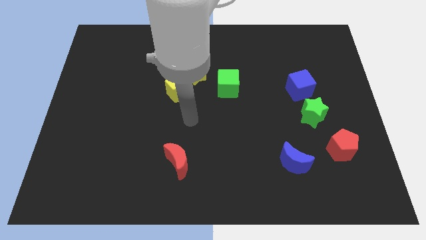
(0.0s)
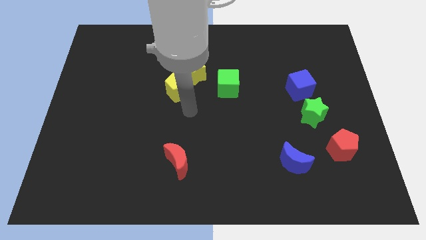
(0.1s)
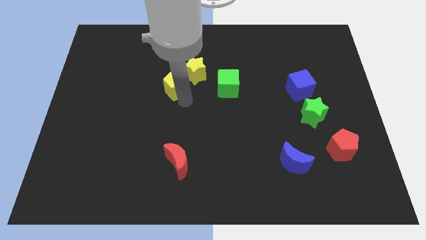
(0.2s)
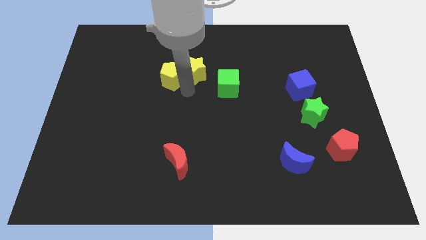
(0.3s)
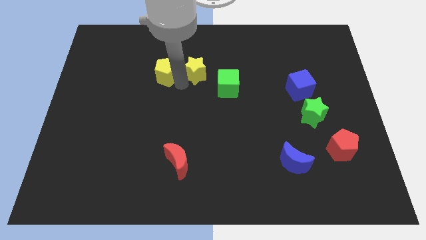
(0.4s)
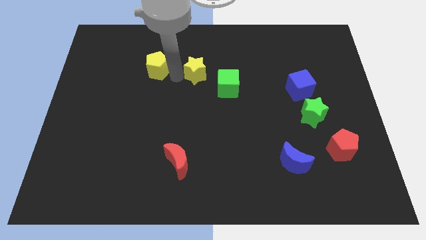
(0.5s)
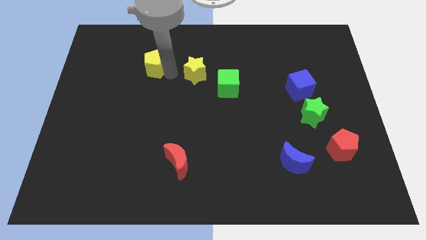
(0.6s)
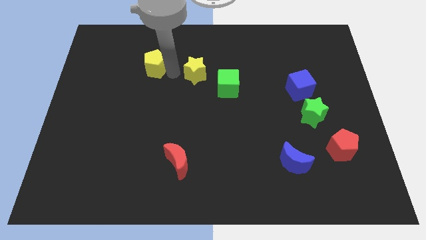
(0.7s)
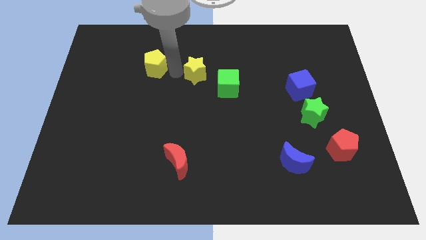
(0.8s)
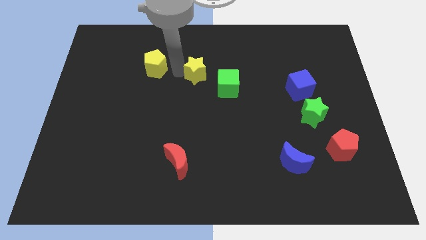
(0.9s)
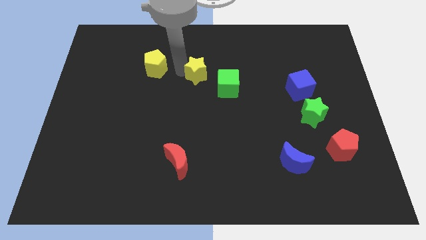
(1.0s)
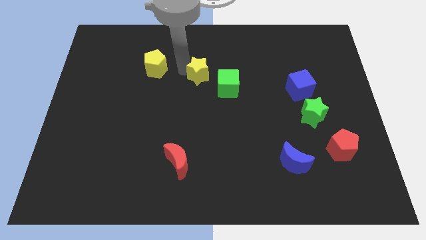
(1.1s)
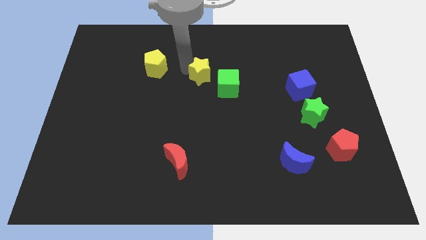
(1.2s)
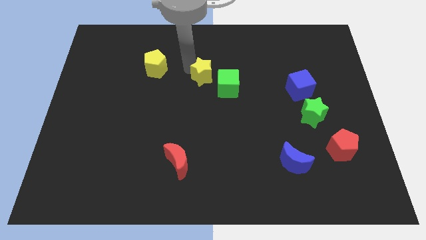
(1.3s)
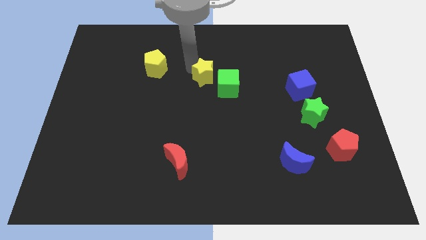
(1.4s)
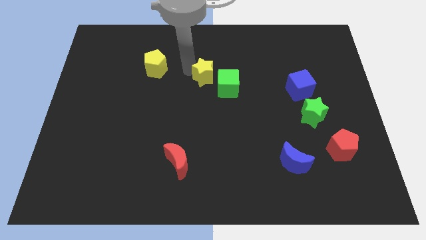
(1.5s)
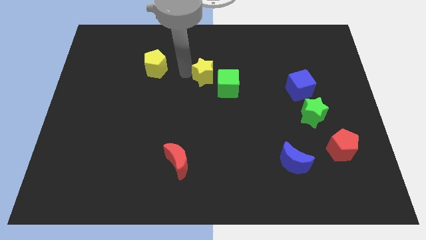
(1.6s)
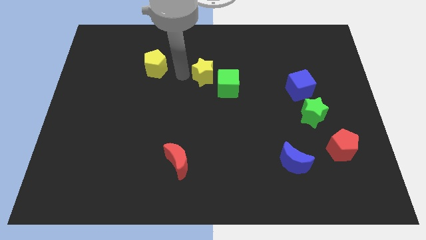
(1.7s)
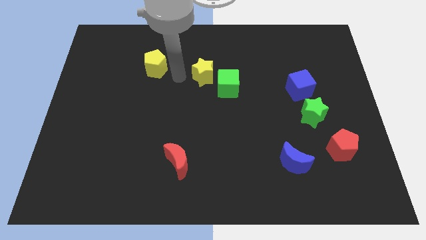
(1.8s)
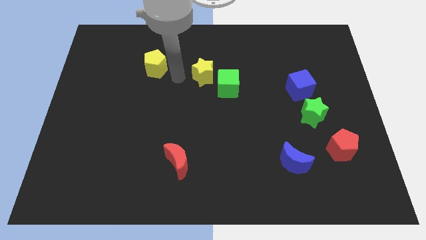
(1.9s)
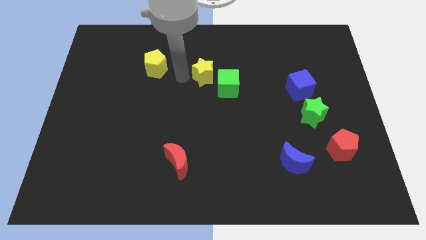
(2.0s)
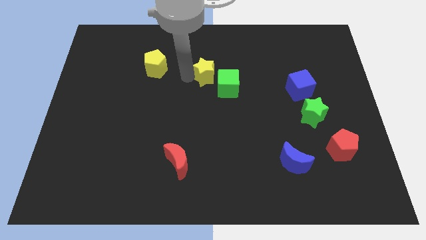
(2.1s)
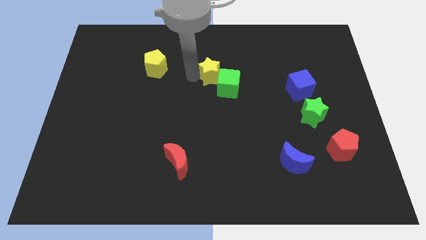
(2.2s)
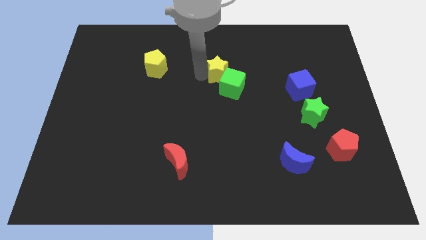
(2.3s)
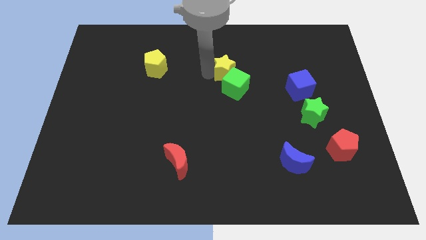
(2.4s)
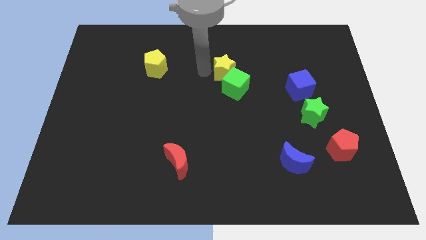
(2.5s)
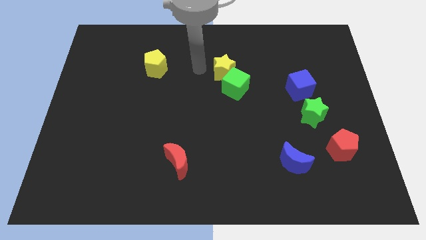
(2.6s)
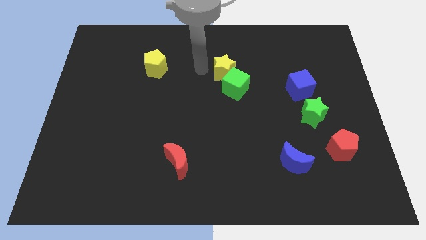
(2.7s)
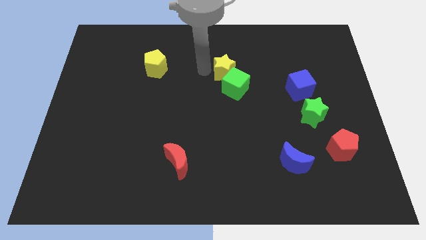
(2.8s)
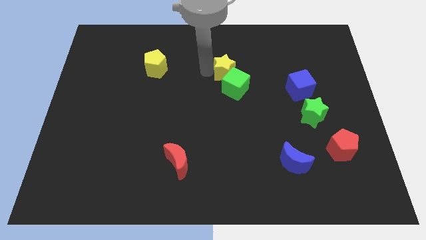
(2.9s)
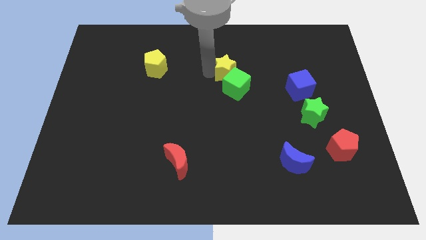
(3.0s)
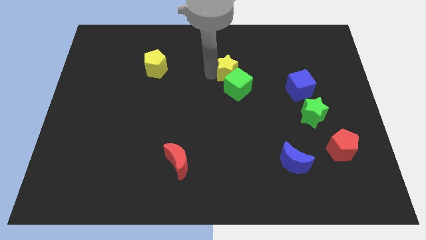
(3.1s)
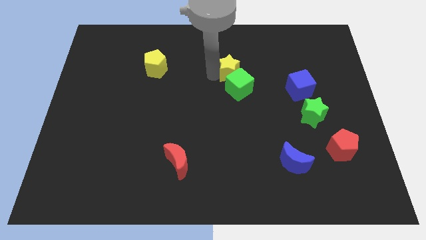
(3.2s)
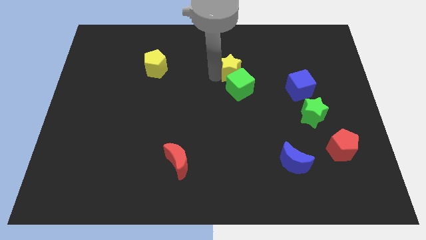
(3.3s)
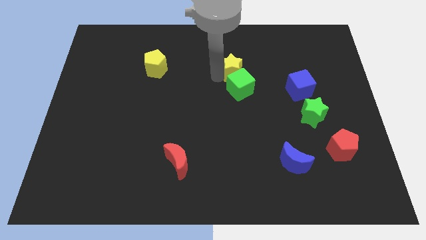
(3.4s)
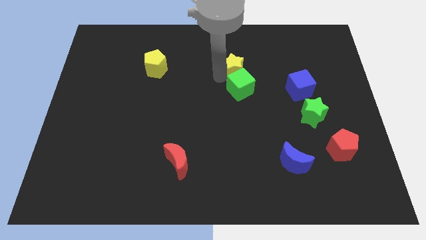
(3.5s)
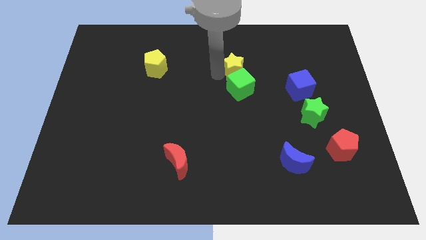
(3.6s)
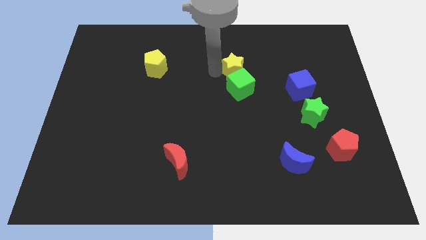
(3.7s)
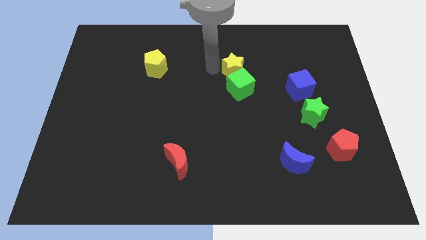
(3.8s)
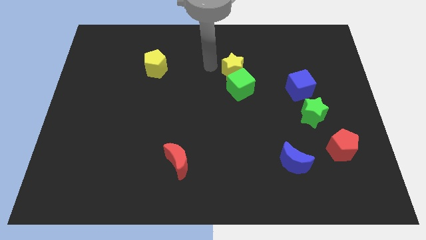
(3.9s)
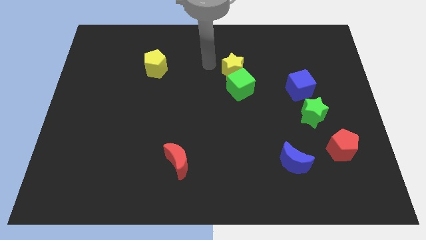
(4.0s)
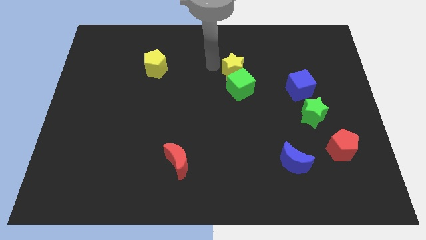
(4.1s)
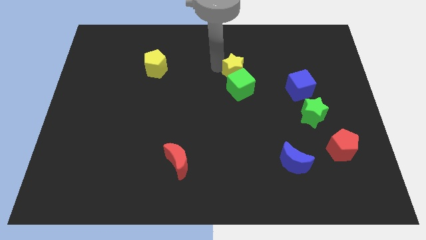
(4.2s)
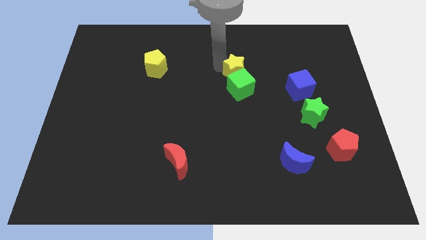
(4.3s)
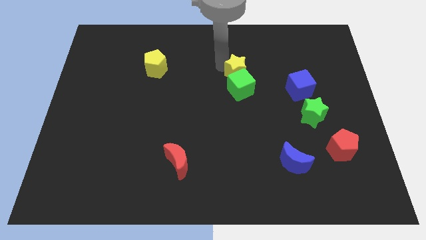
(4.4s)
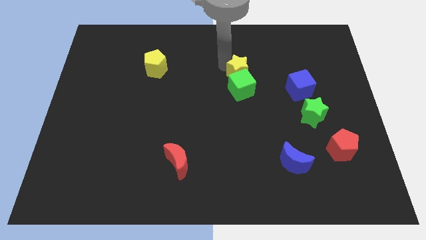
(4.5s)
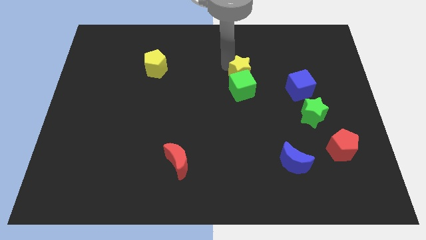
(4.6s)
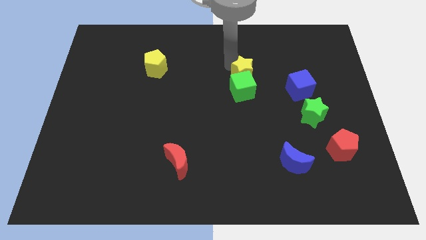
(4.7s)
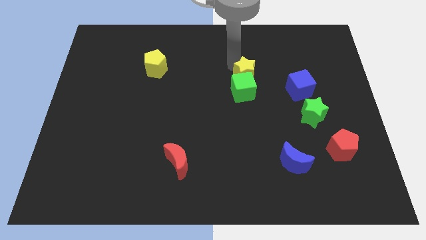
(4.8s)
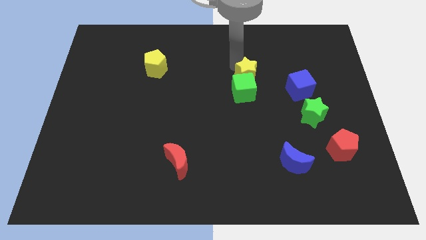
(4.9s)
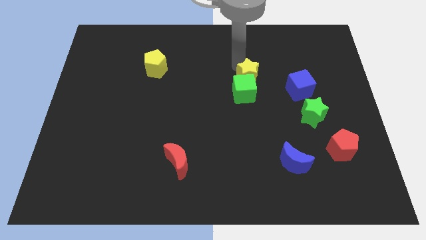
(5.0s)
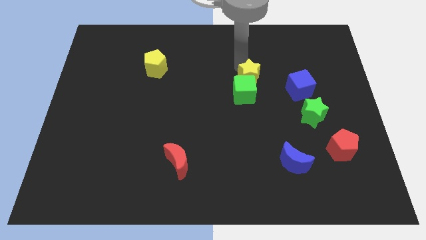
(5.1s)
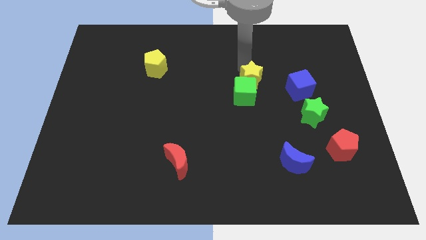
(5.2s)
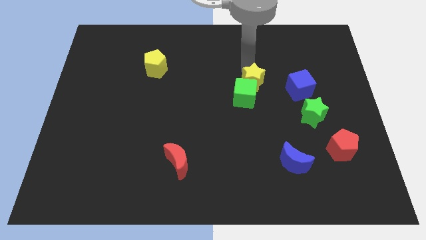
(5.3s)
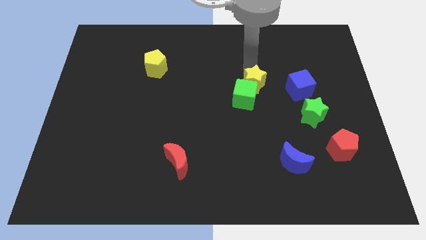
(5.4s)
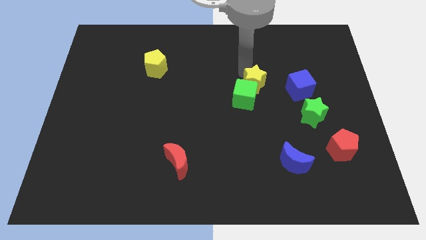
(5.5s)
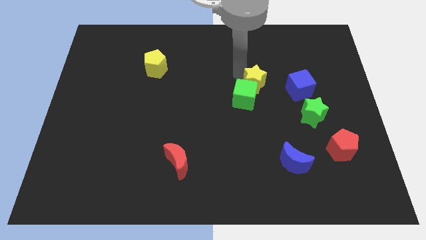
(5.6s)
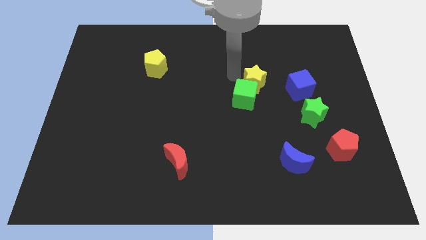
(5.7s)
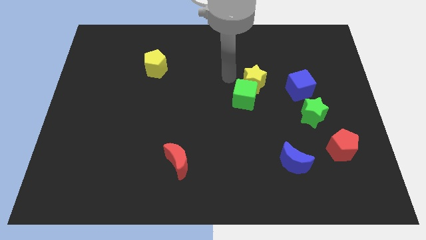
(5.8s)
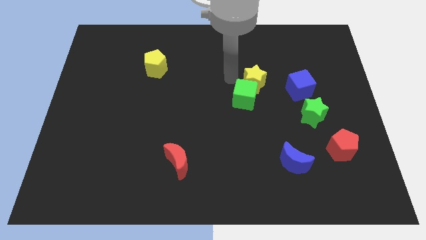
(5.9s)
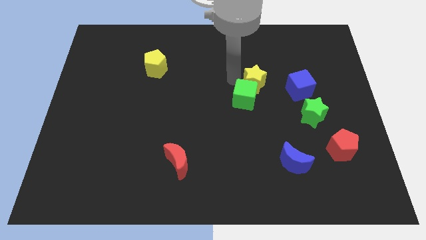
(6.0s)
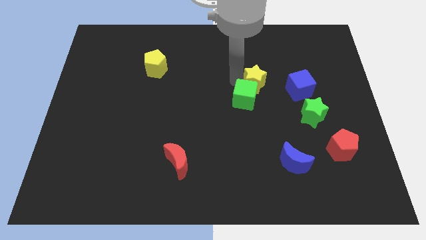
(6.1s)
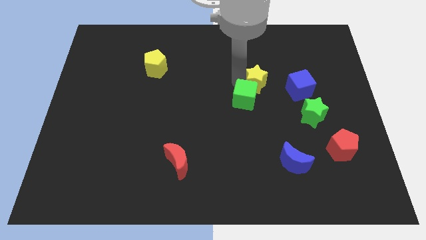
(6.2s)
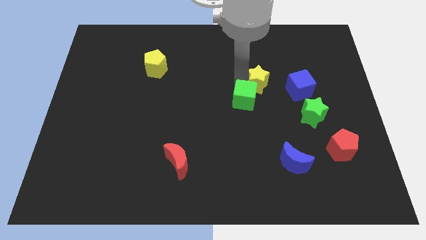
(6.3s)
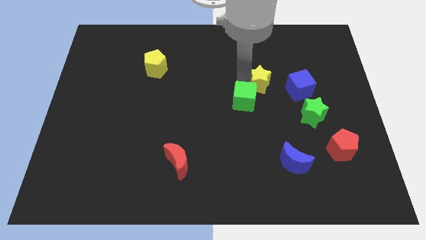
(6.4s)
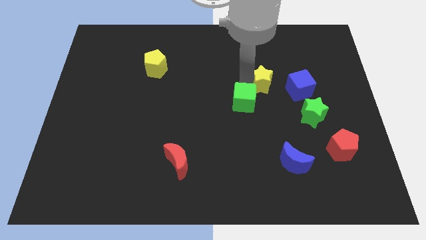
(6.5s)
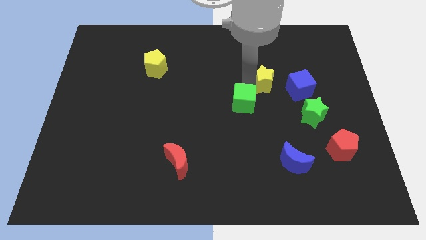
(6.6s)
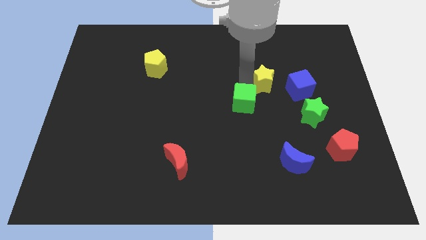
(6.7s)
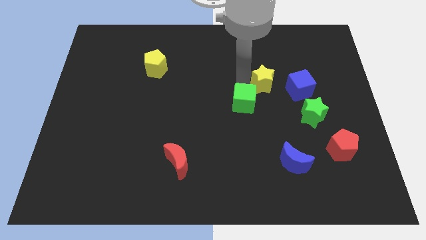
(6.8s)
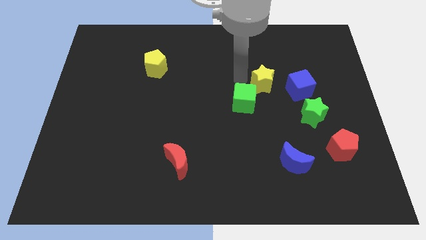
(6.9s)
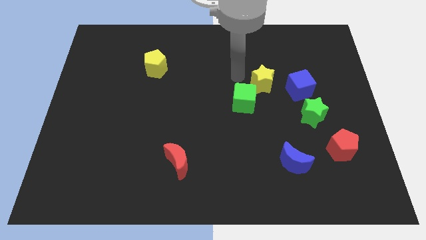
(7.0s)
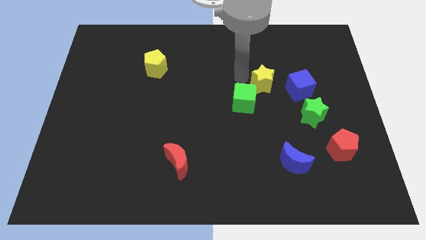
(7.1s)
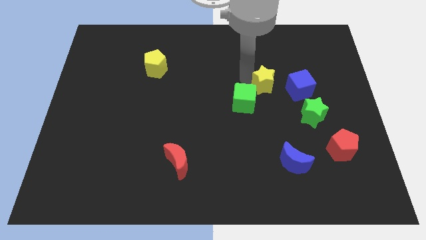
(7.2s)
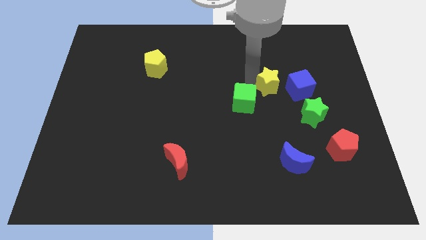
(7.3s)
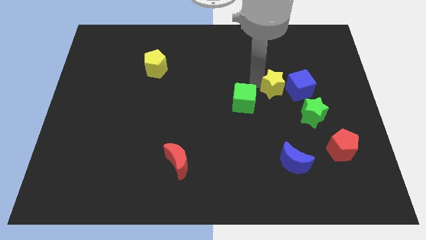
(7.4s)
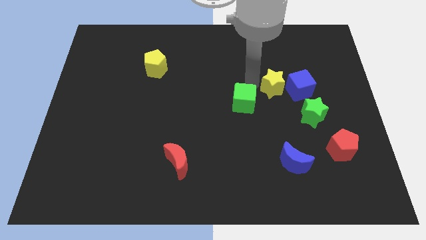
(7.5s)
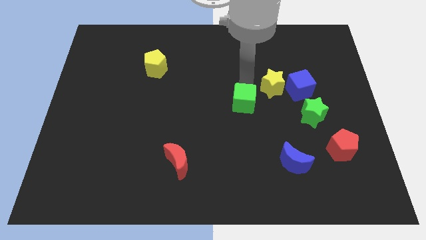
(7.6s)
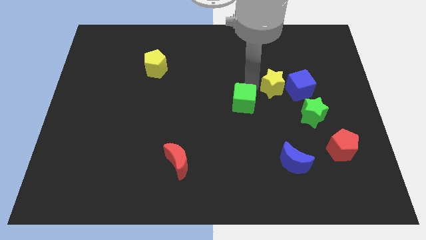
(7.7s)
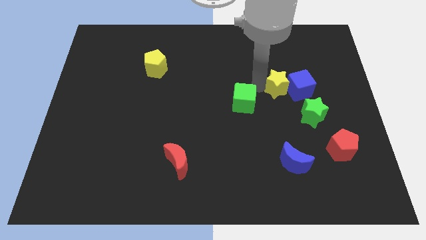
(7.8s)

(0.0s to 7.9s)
move the yellow star close to the blue cube
